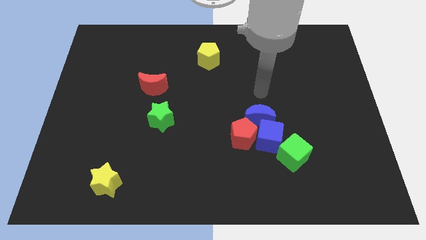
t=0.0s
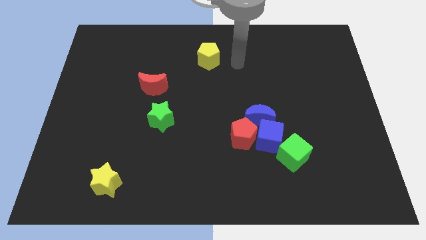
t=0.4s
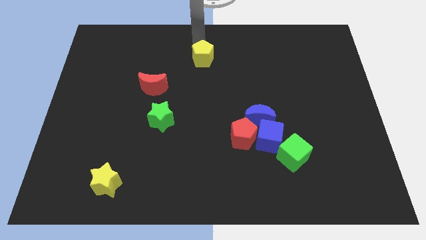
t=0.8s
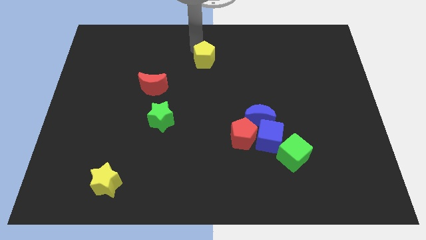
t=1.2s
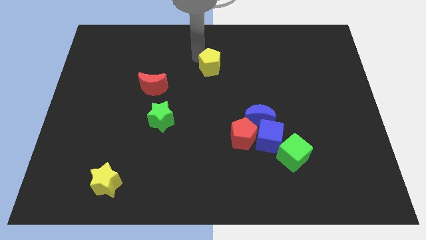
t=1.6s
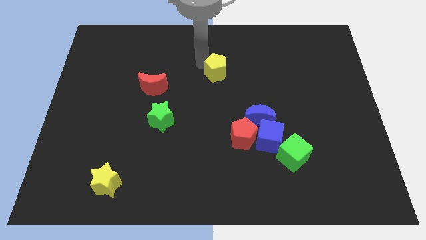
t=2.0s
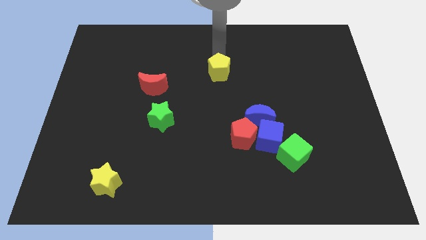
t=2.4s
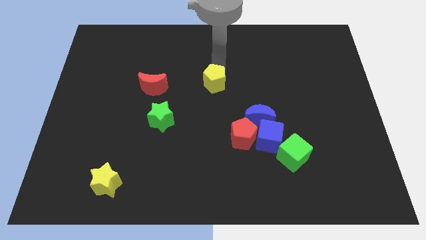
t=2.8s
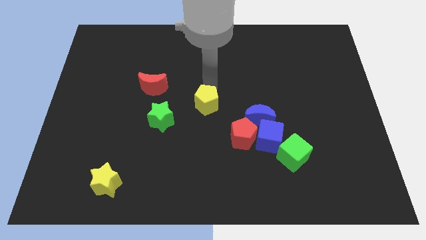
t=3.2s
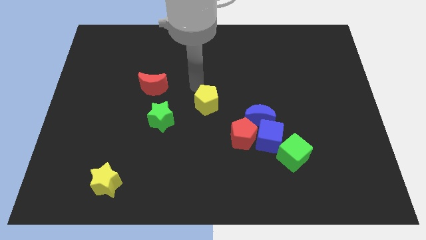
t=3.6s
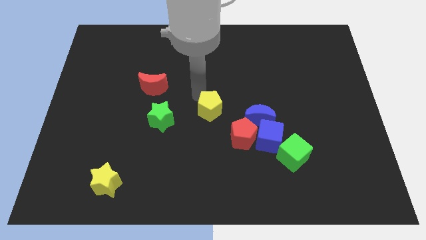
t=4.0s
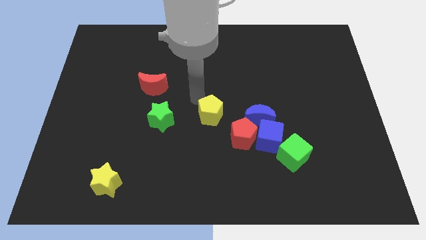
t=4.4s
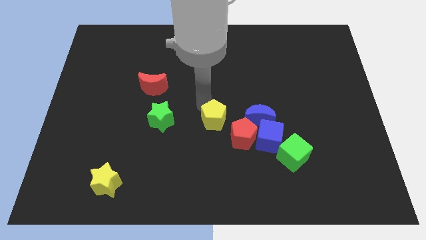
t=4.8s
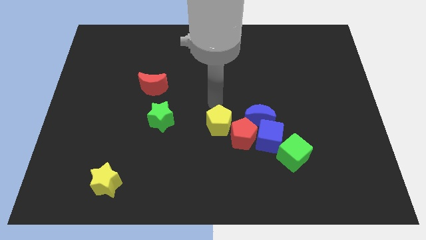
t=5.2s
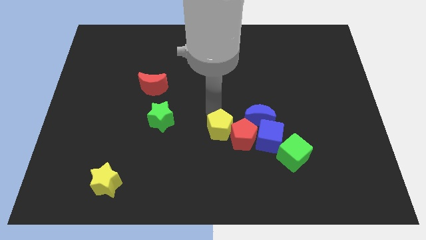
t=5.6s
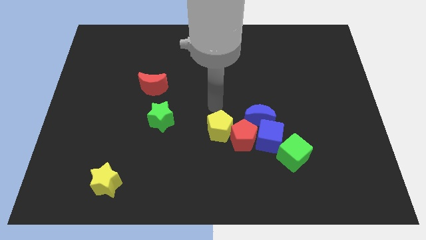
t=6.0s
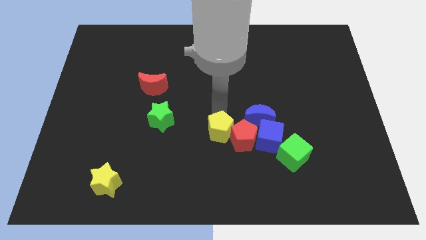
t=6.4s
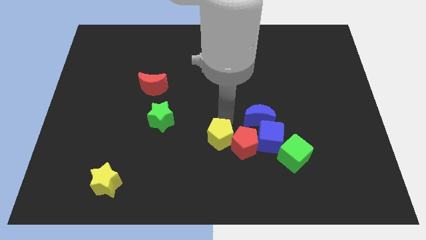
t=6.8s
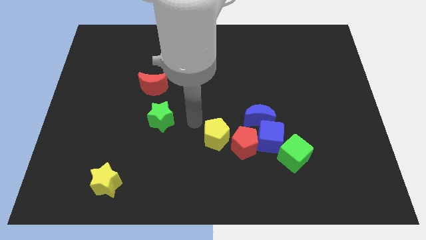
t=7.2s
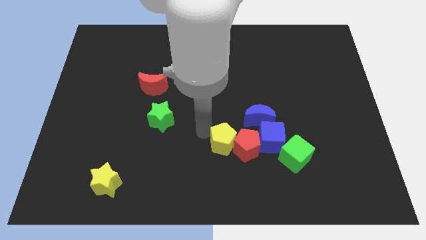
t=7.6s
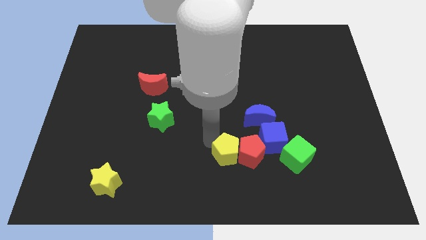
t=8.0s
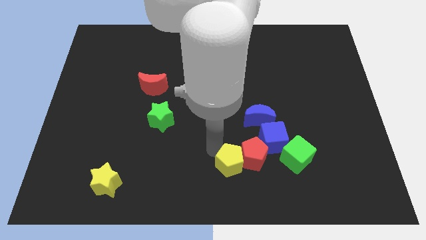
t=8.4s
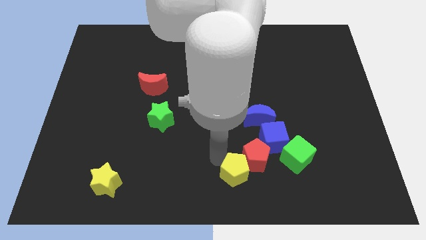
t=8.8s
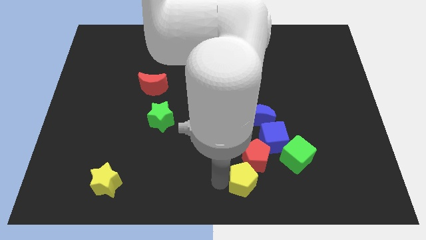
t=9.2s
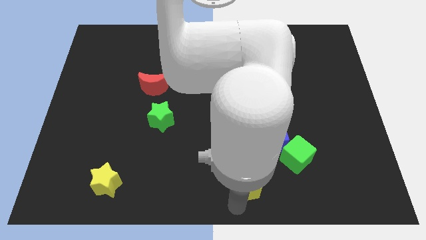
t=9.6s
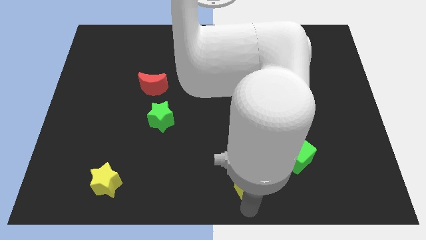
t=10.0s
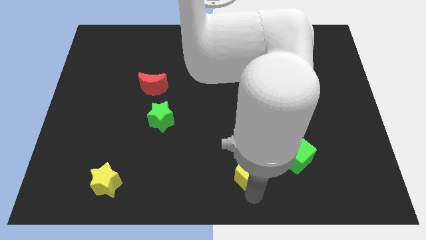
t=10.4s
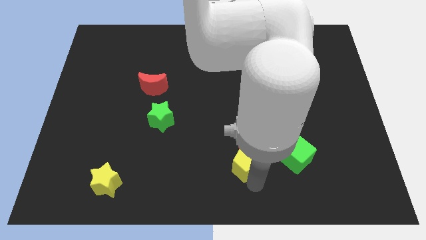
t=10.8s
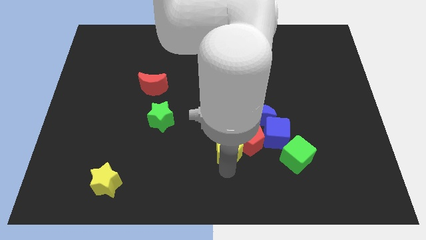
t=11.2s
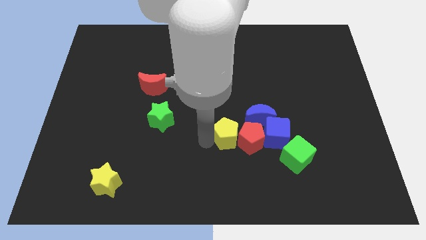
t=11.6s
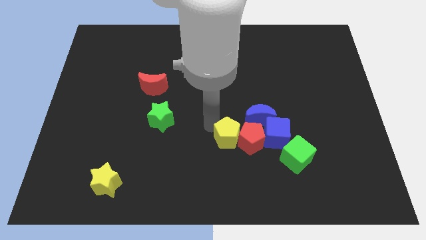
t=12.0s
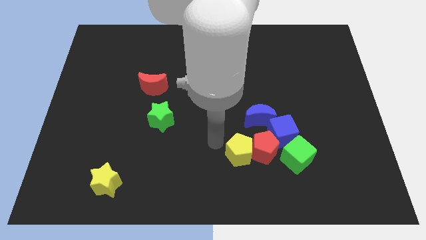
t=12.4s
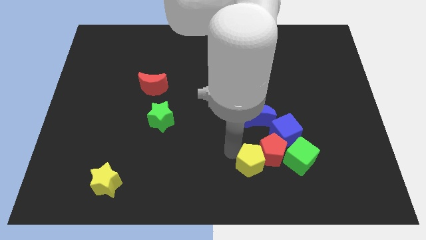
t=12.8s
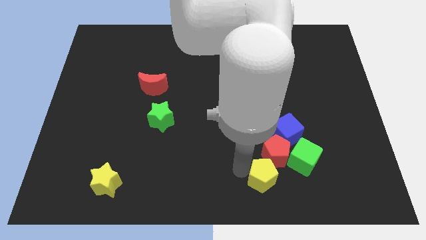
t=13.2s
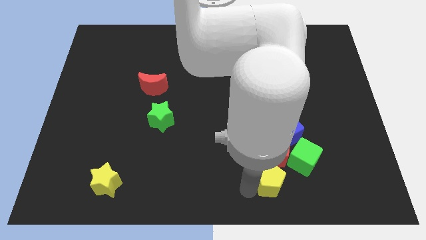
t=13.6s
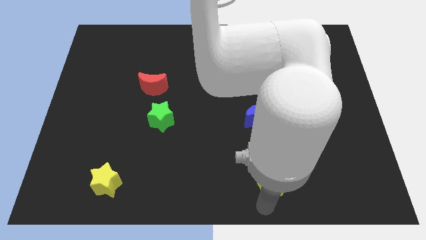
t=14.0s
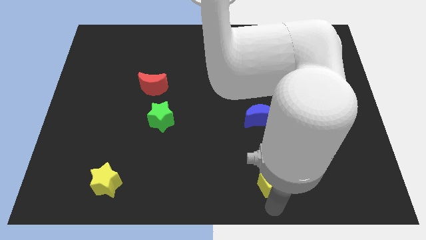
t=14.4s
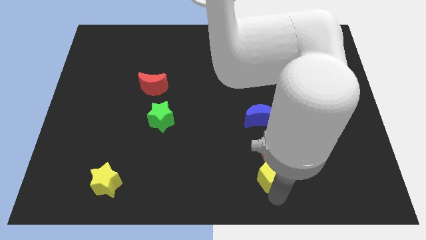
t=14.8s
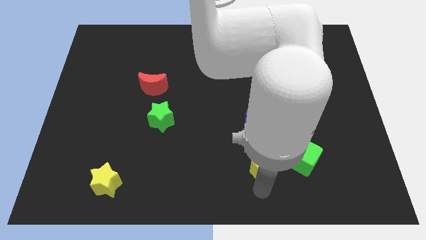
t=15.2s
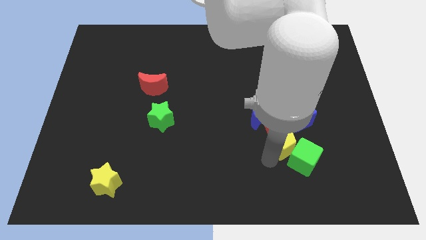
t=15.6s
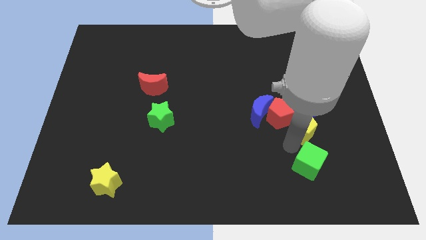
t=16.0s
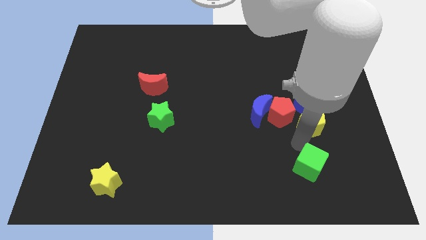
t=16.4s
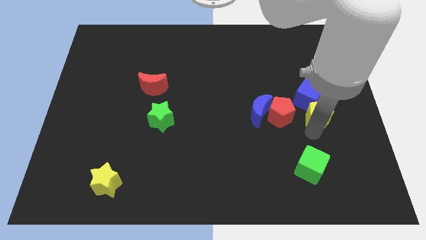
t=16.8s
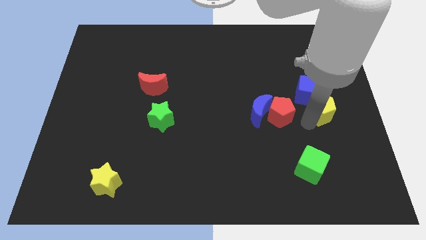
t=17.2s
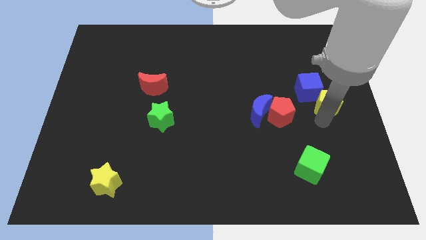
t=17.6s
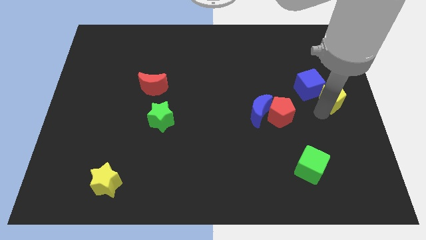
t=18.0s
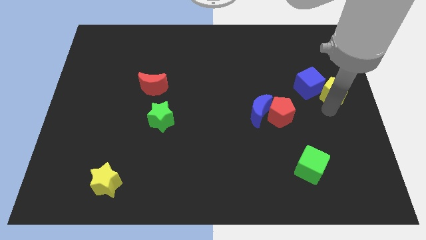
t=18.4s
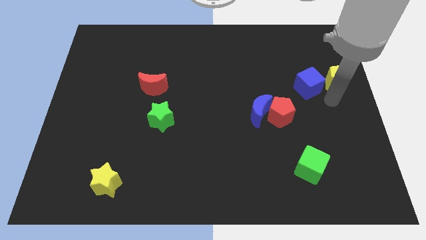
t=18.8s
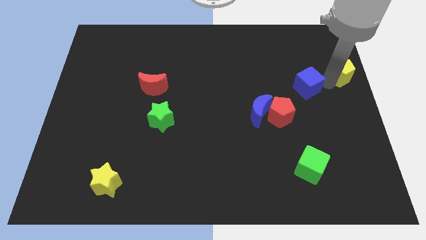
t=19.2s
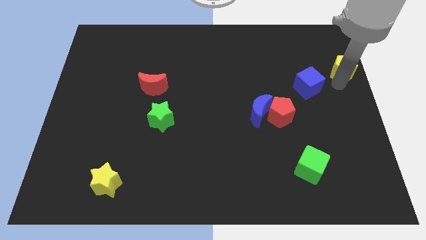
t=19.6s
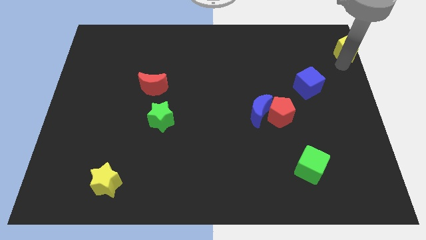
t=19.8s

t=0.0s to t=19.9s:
move the yellow pentagon to the top right of the board
